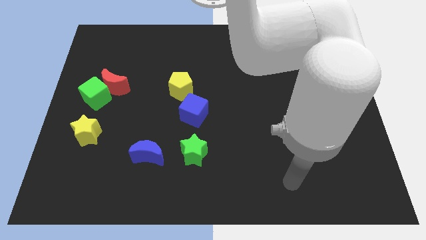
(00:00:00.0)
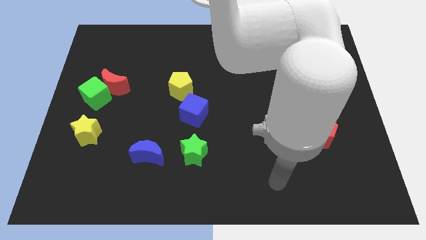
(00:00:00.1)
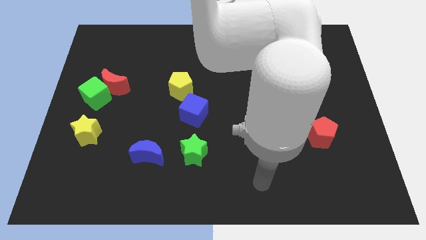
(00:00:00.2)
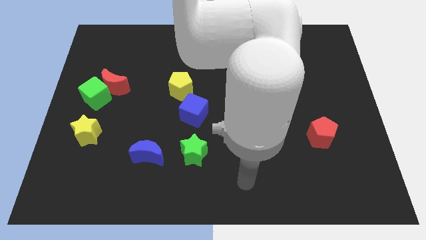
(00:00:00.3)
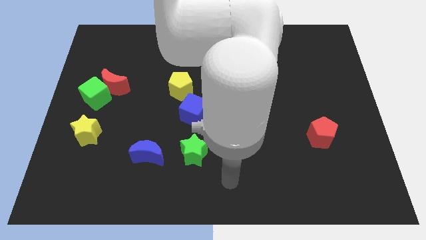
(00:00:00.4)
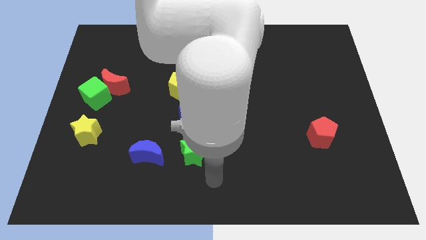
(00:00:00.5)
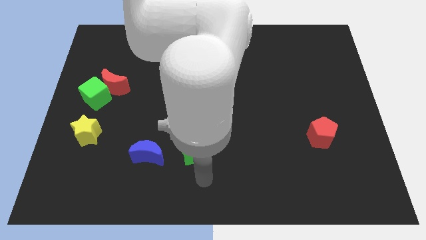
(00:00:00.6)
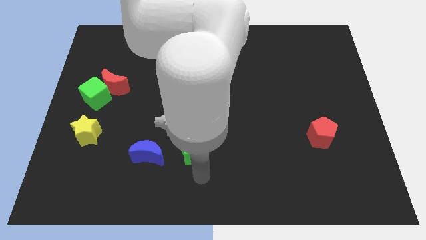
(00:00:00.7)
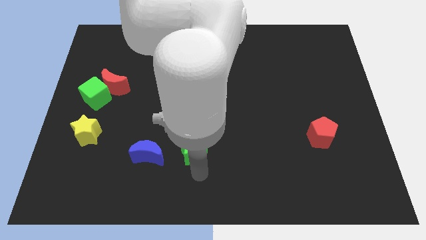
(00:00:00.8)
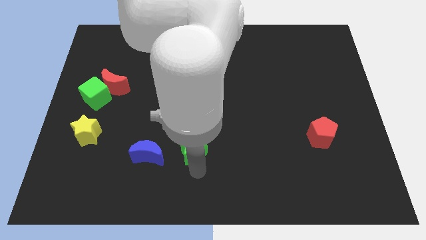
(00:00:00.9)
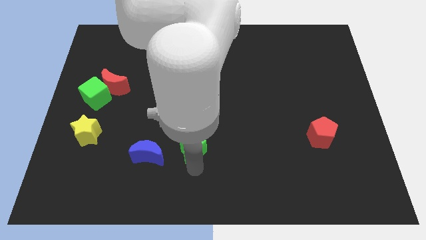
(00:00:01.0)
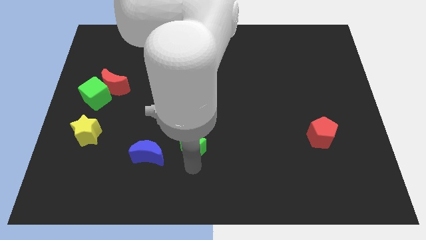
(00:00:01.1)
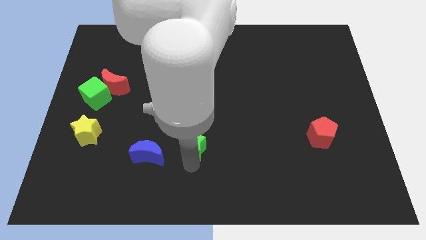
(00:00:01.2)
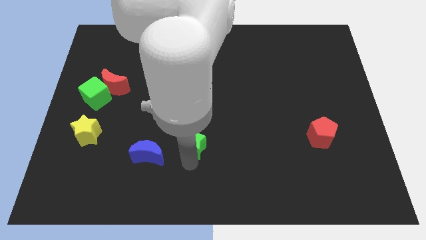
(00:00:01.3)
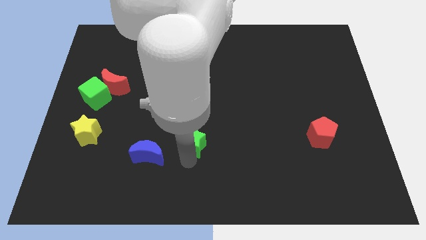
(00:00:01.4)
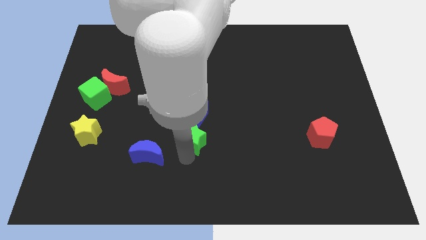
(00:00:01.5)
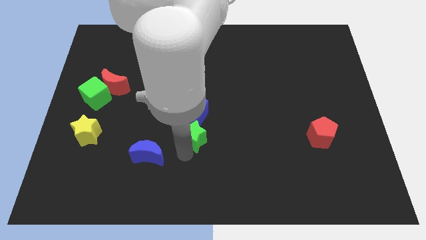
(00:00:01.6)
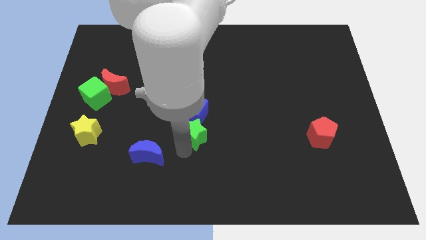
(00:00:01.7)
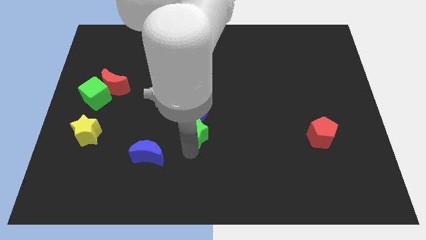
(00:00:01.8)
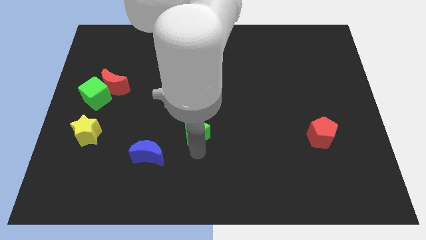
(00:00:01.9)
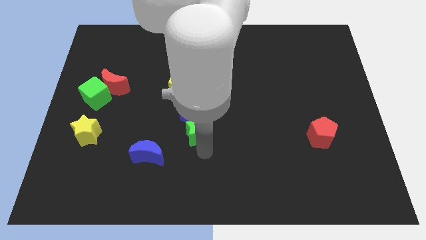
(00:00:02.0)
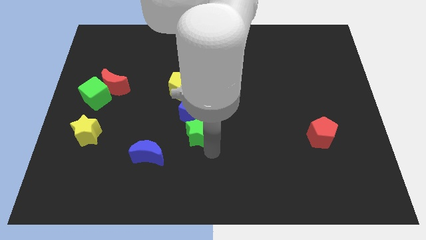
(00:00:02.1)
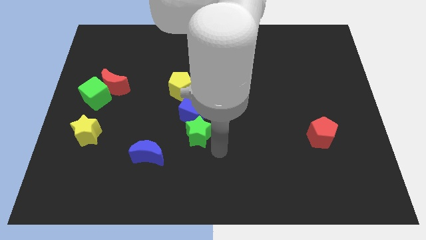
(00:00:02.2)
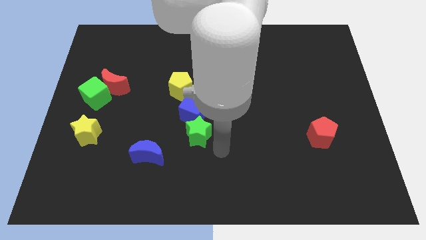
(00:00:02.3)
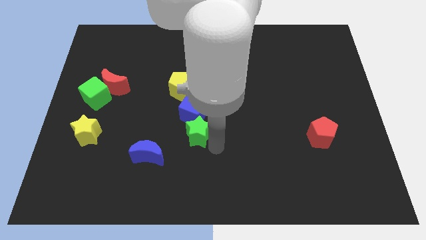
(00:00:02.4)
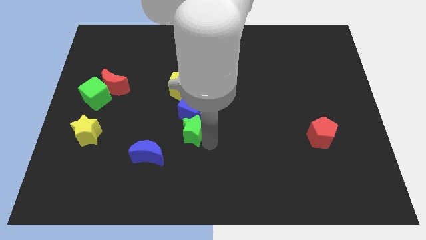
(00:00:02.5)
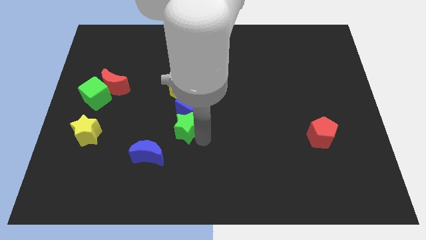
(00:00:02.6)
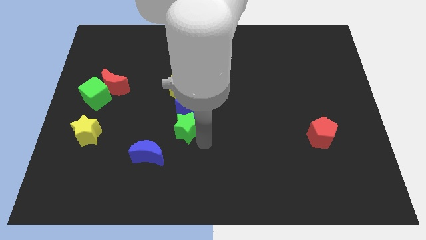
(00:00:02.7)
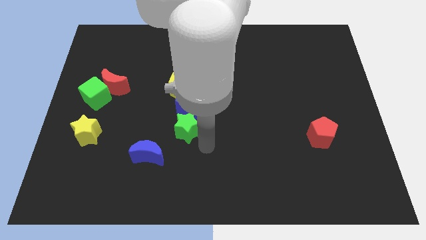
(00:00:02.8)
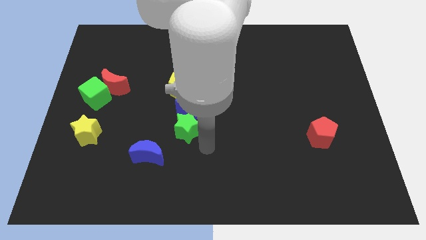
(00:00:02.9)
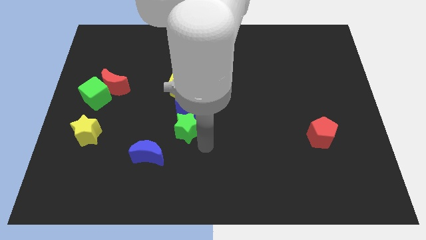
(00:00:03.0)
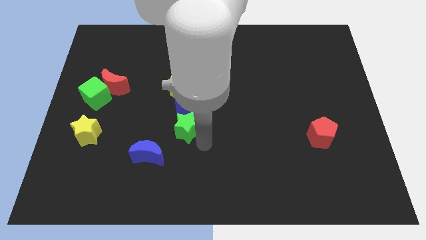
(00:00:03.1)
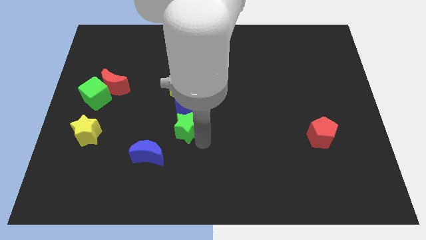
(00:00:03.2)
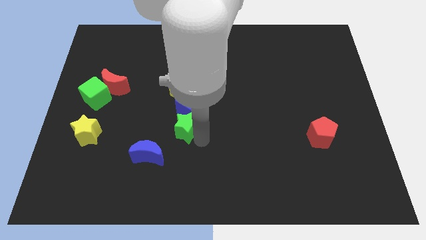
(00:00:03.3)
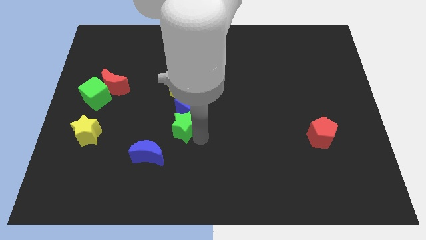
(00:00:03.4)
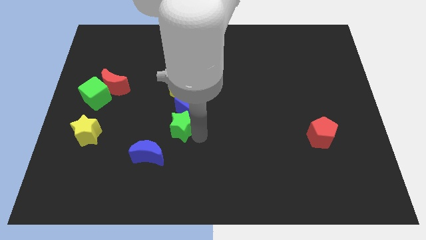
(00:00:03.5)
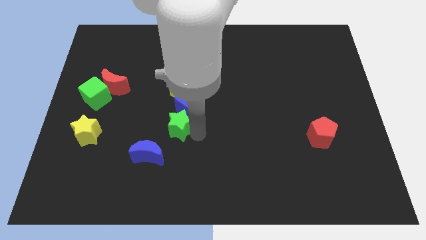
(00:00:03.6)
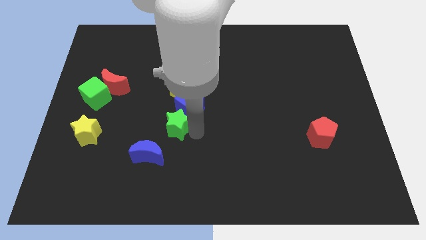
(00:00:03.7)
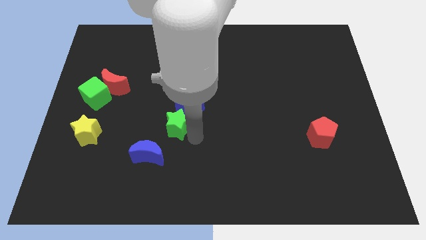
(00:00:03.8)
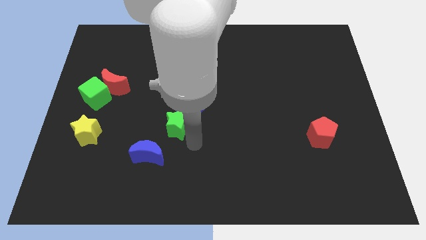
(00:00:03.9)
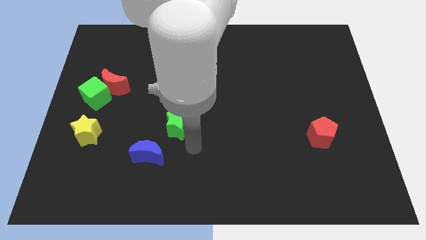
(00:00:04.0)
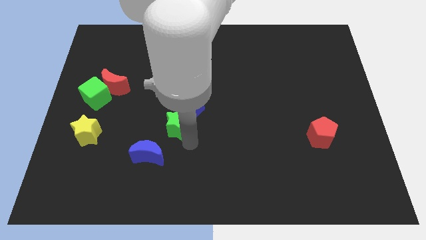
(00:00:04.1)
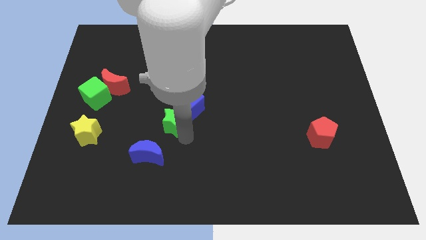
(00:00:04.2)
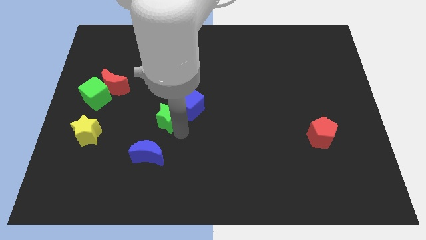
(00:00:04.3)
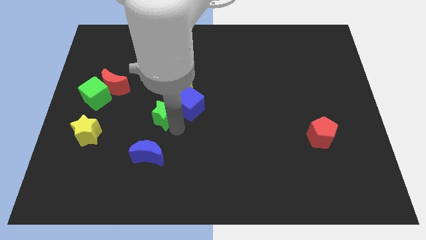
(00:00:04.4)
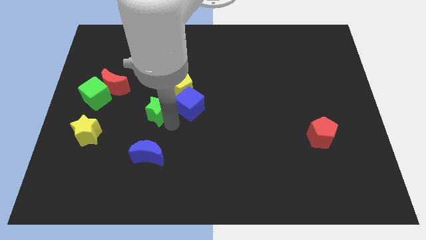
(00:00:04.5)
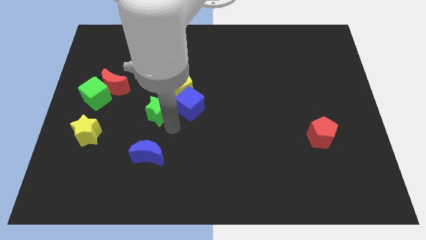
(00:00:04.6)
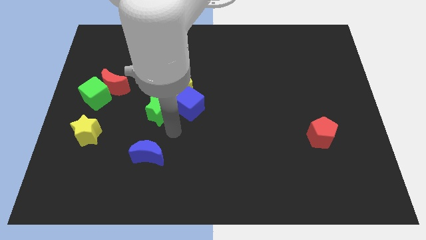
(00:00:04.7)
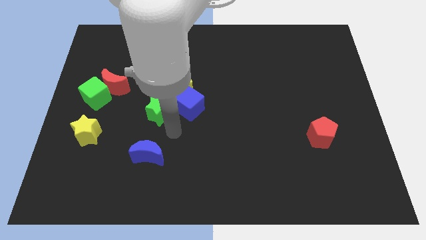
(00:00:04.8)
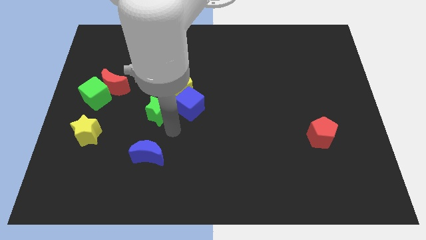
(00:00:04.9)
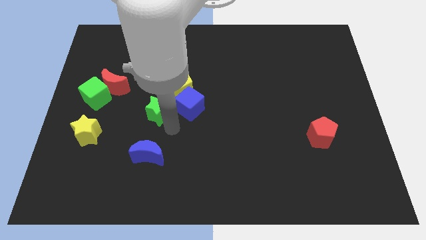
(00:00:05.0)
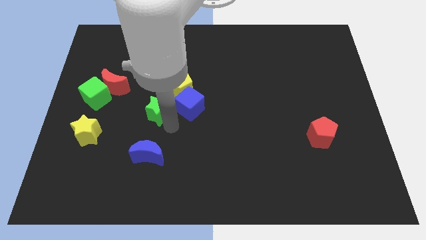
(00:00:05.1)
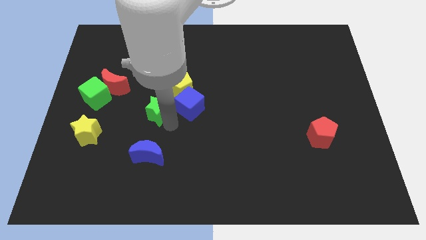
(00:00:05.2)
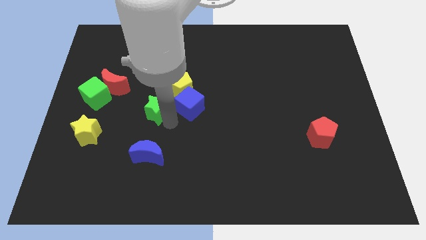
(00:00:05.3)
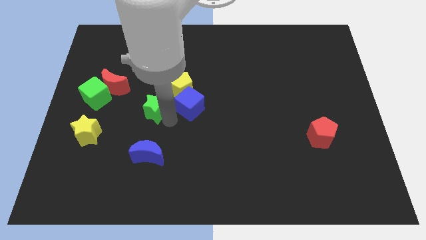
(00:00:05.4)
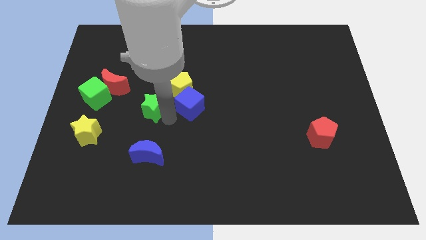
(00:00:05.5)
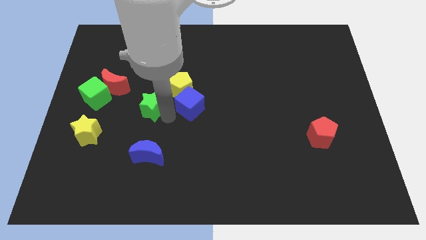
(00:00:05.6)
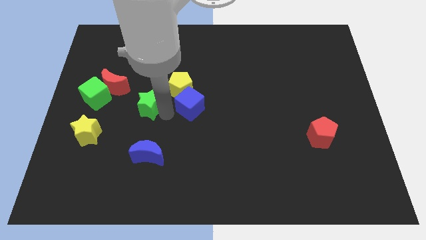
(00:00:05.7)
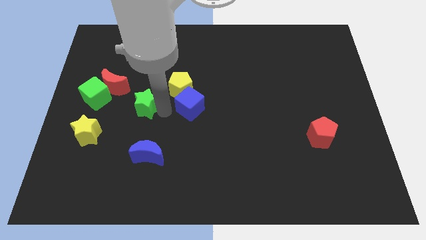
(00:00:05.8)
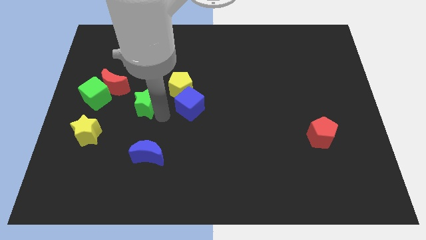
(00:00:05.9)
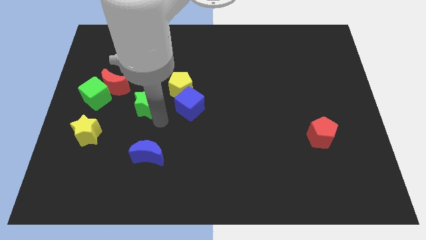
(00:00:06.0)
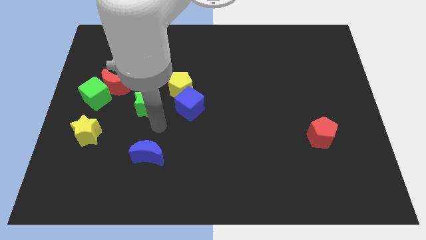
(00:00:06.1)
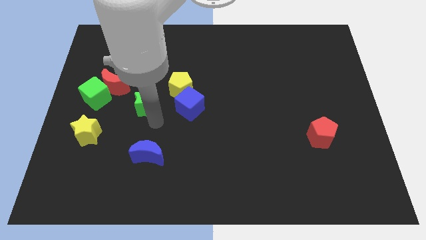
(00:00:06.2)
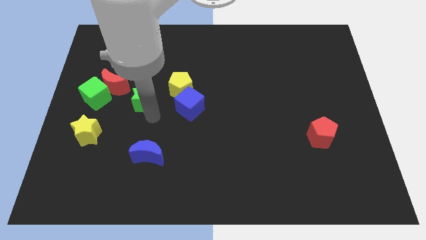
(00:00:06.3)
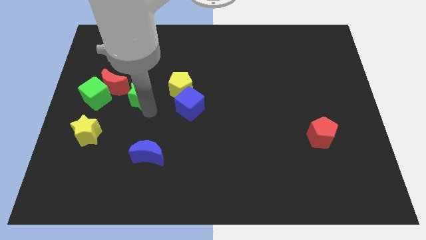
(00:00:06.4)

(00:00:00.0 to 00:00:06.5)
slide the green star up and then to the left

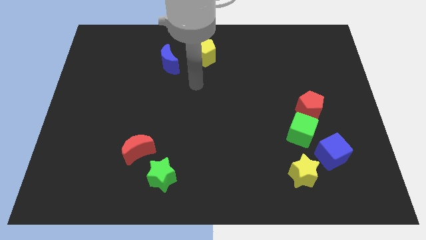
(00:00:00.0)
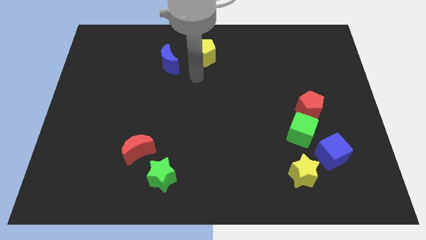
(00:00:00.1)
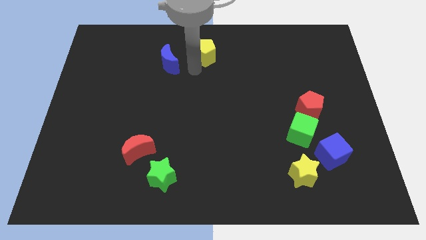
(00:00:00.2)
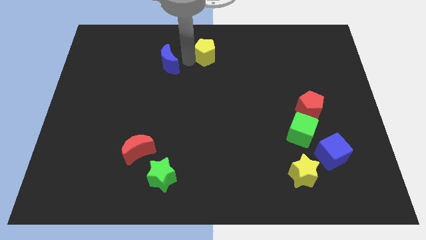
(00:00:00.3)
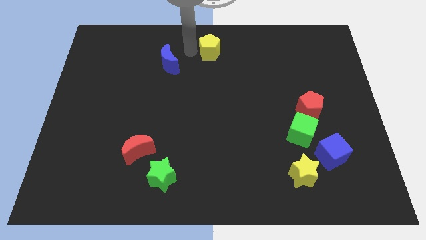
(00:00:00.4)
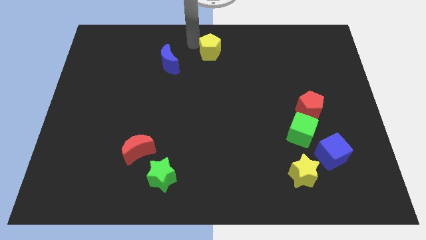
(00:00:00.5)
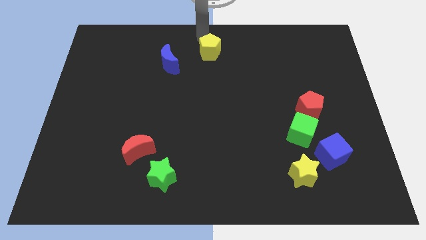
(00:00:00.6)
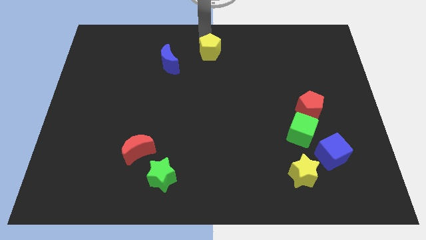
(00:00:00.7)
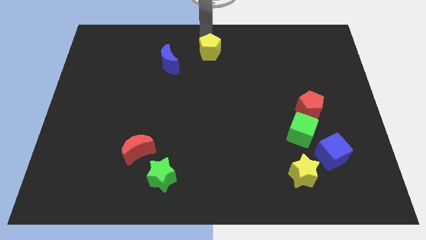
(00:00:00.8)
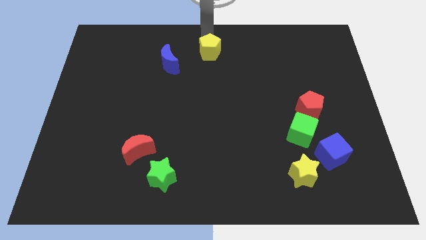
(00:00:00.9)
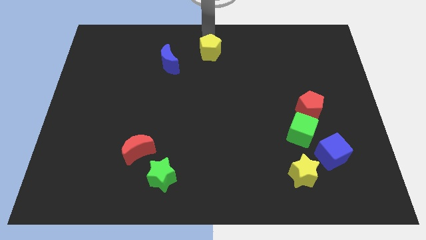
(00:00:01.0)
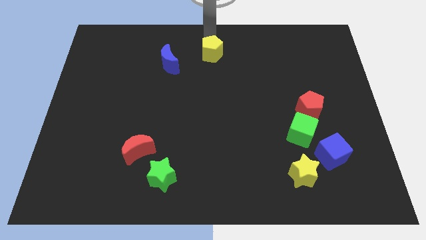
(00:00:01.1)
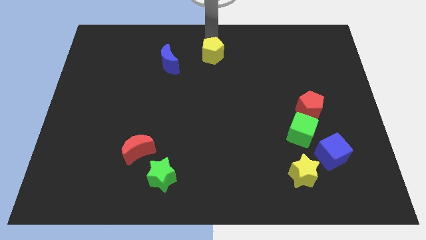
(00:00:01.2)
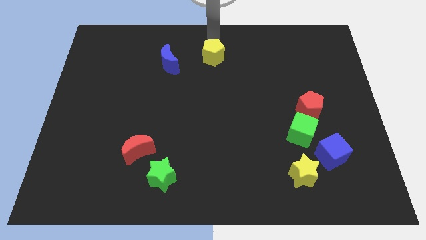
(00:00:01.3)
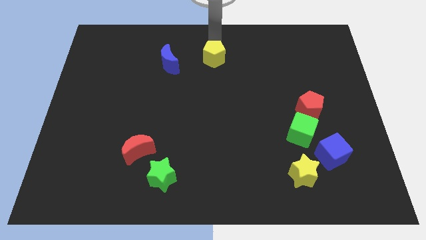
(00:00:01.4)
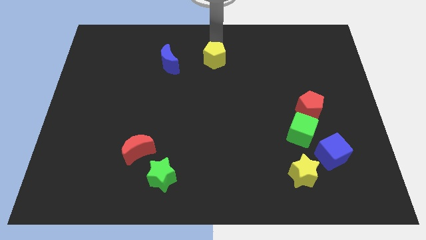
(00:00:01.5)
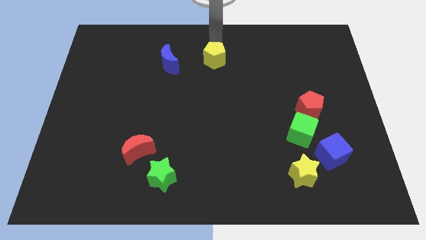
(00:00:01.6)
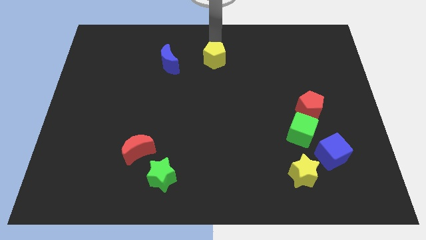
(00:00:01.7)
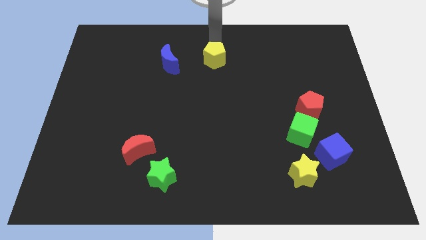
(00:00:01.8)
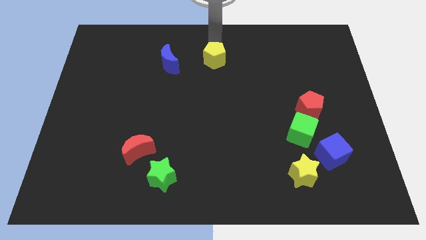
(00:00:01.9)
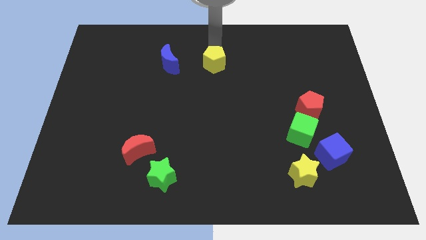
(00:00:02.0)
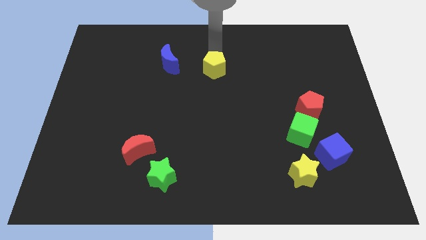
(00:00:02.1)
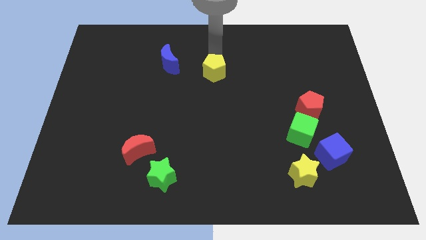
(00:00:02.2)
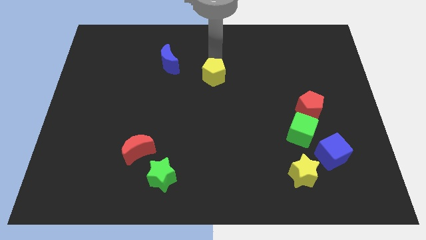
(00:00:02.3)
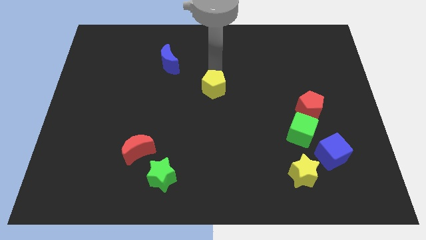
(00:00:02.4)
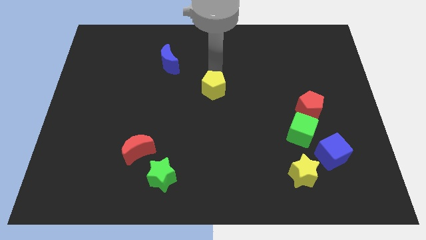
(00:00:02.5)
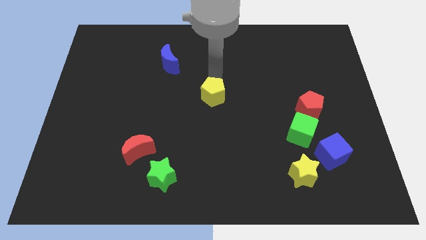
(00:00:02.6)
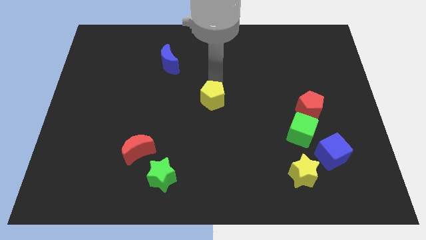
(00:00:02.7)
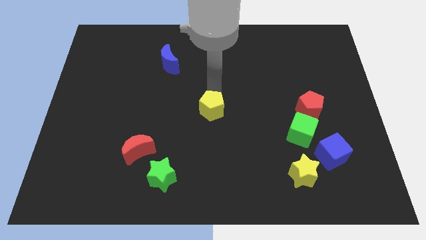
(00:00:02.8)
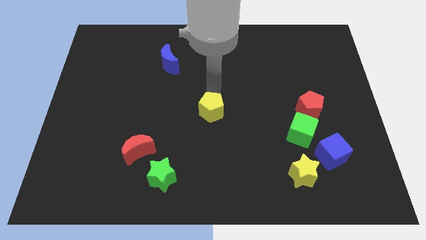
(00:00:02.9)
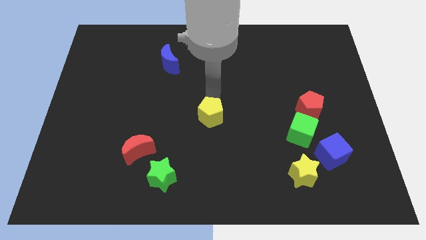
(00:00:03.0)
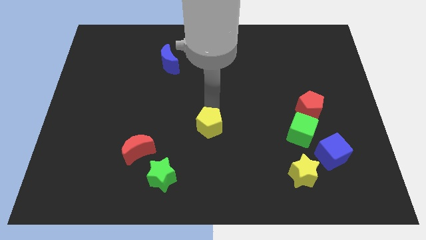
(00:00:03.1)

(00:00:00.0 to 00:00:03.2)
slide the yellow pentagon downwards
